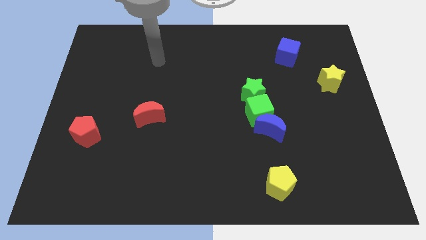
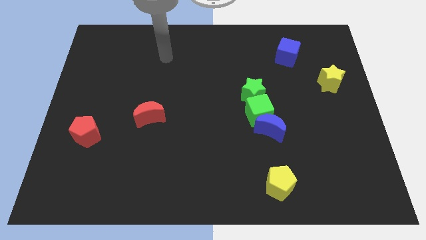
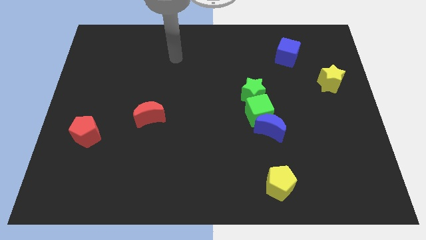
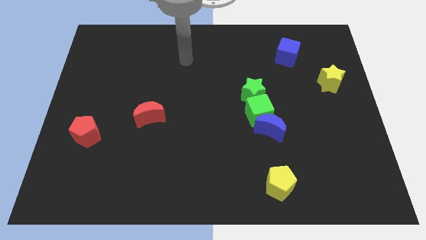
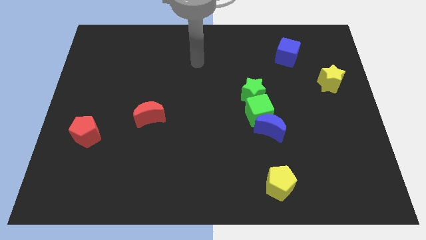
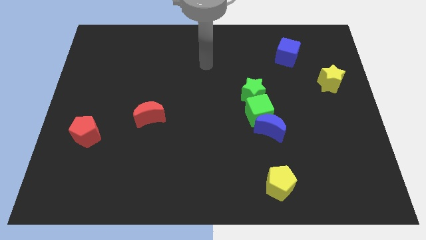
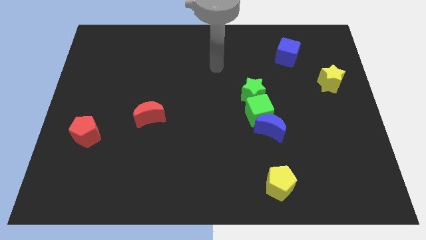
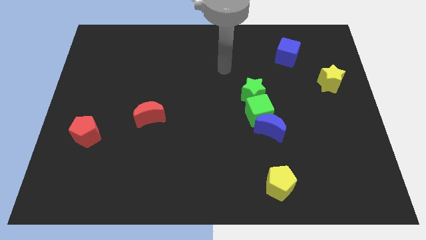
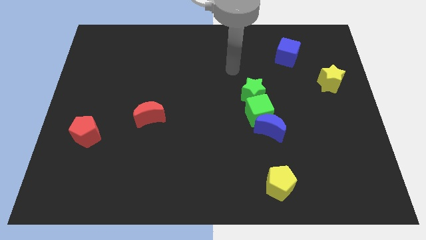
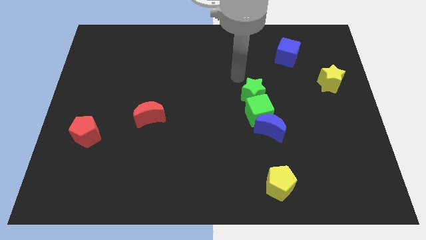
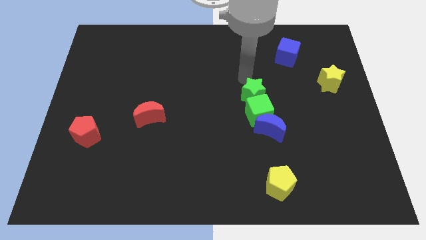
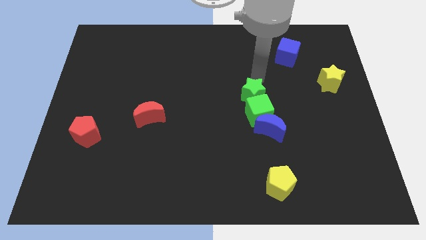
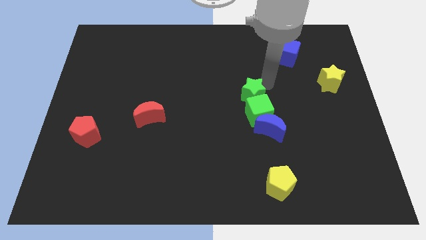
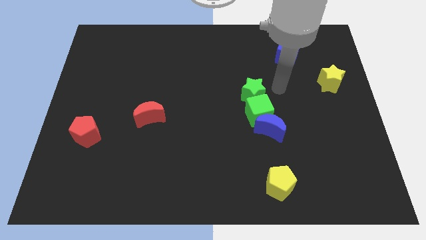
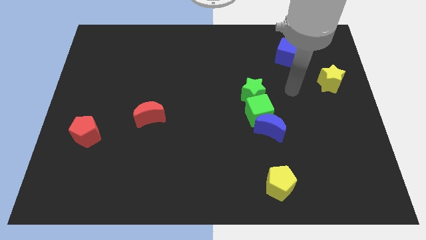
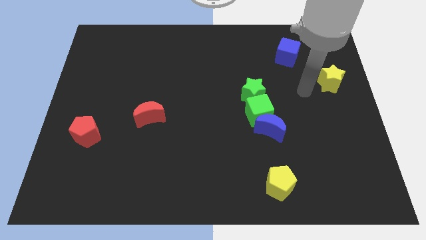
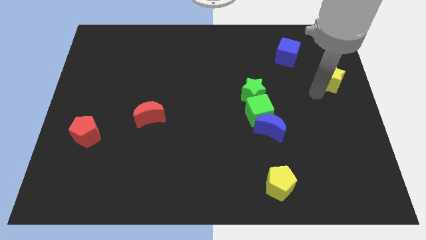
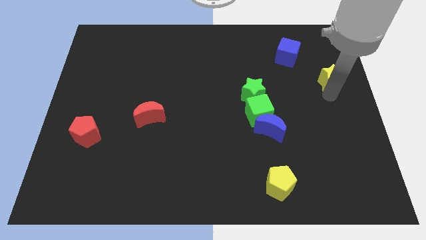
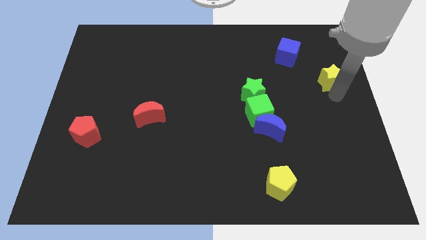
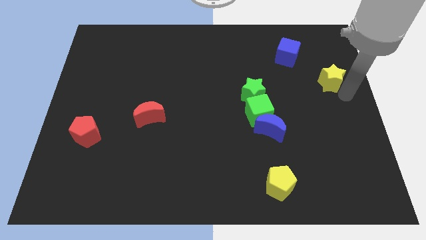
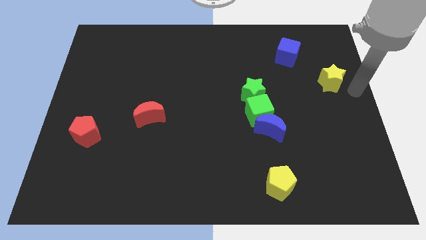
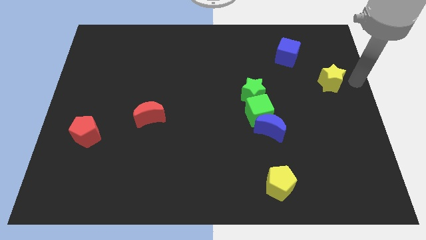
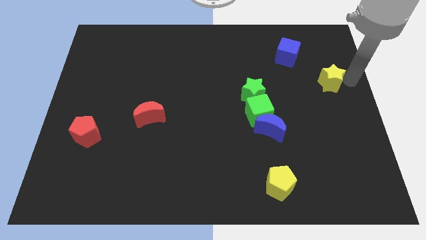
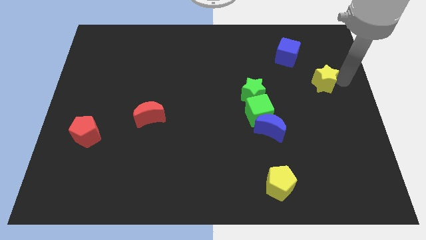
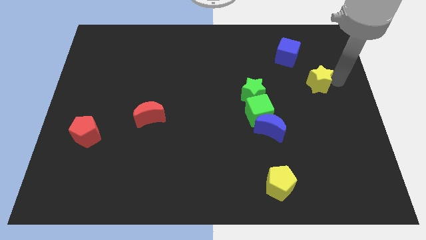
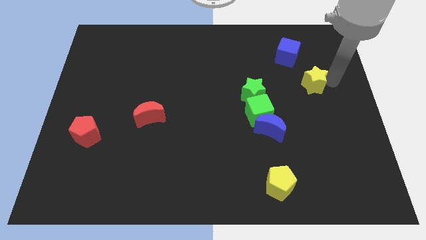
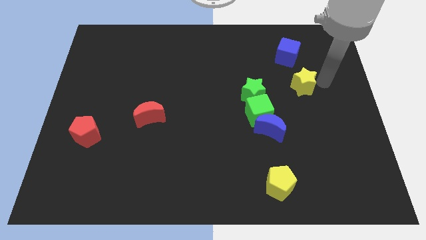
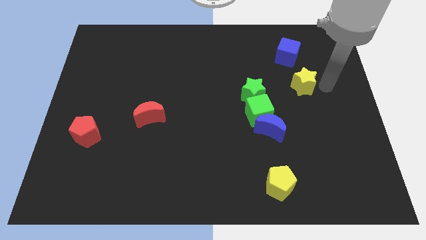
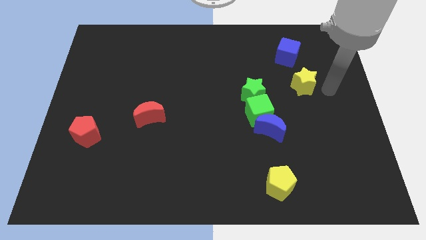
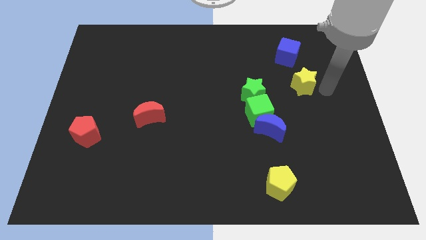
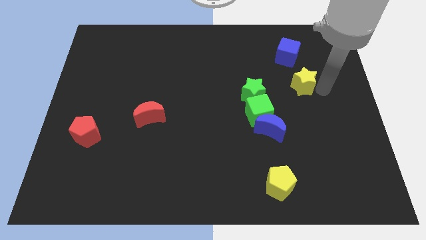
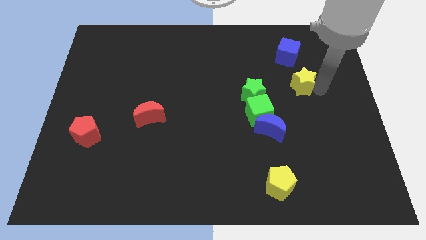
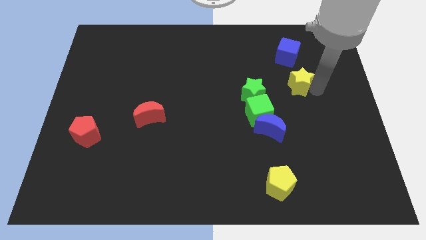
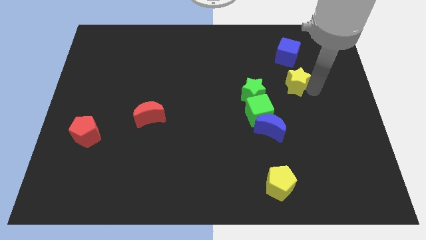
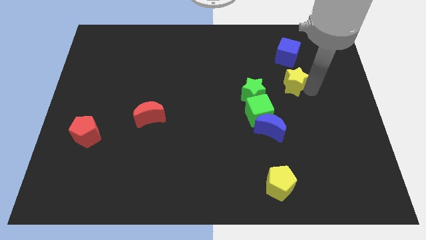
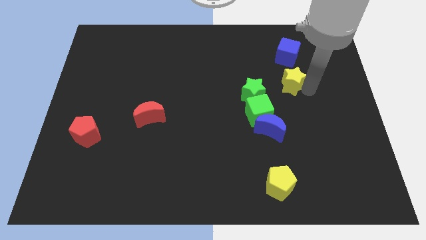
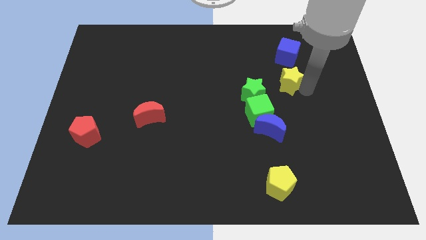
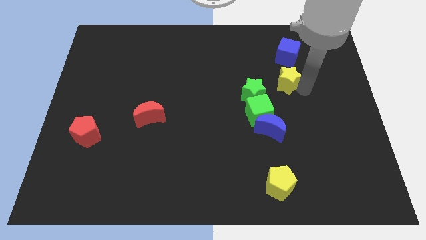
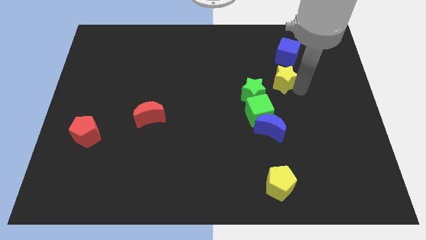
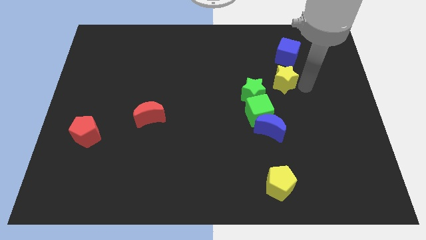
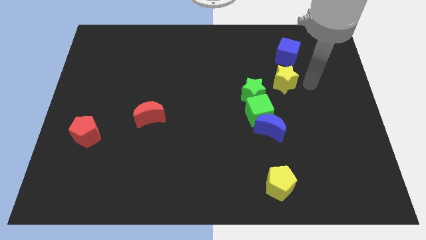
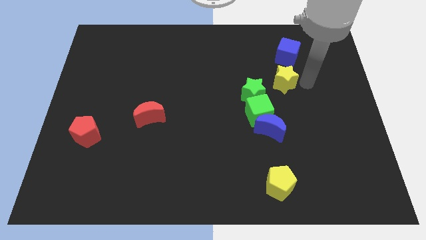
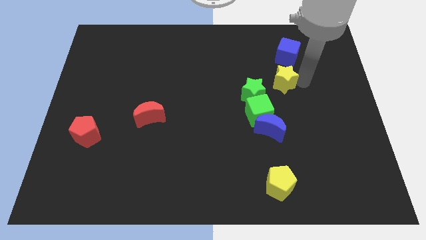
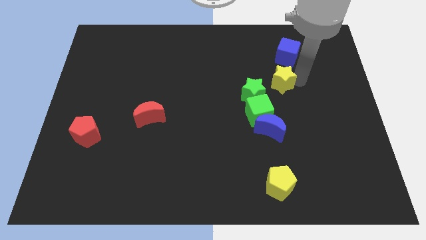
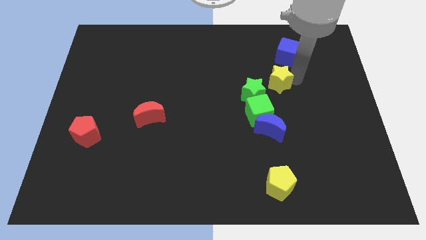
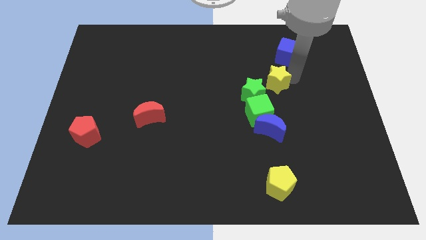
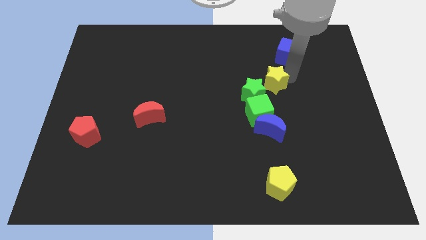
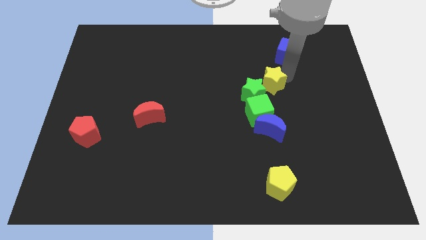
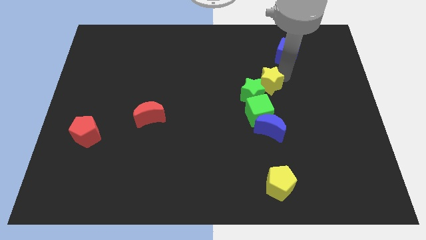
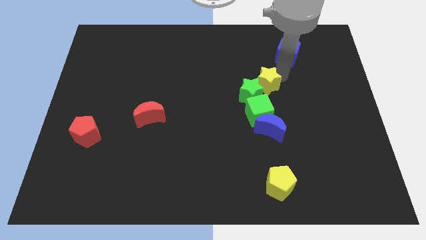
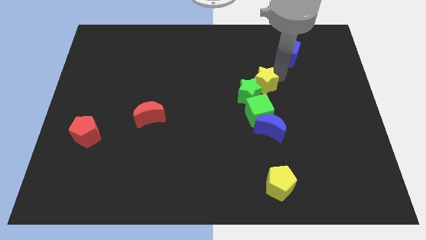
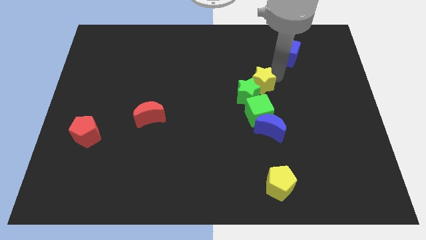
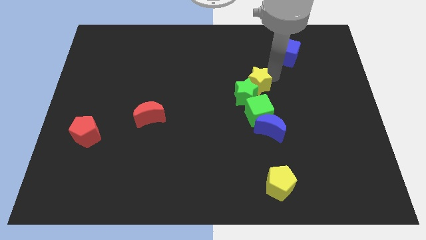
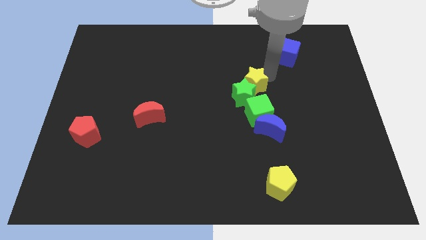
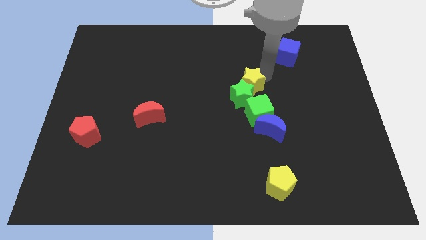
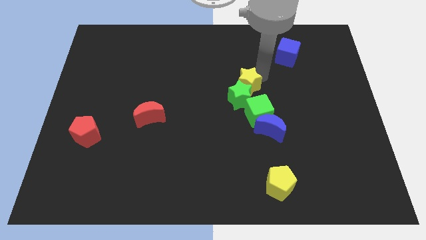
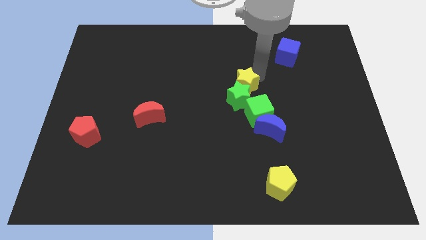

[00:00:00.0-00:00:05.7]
move the yellow star to the top left side of the green star

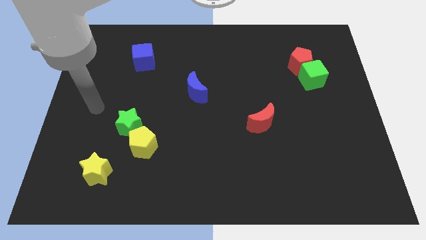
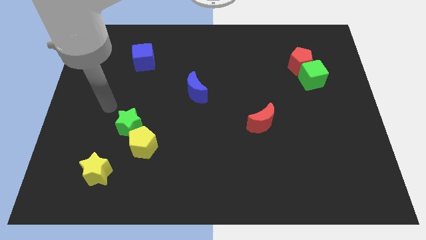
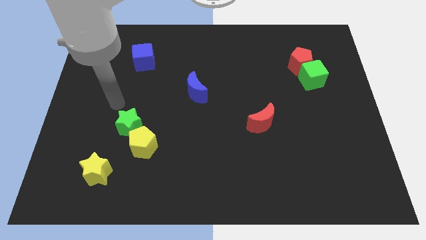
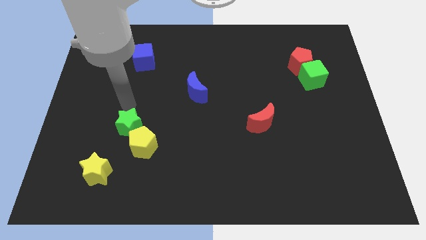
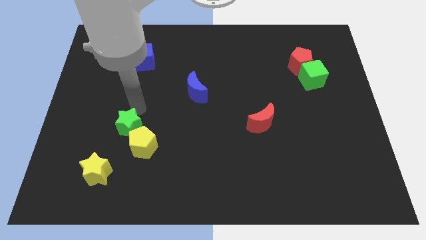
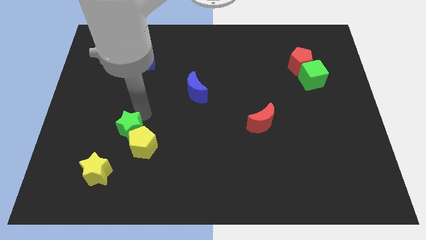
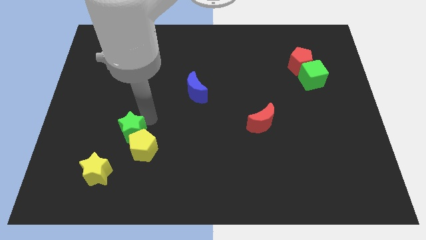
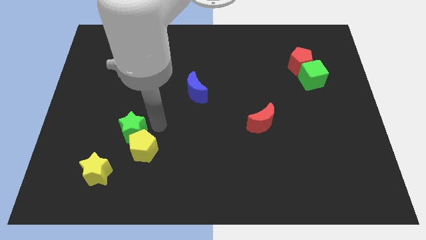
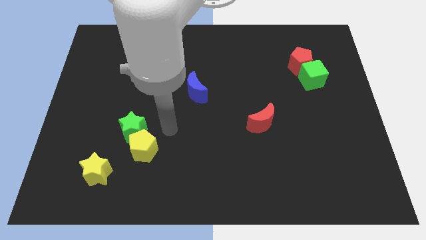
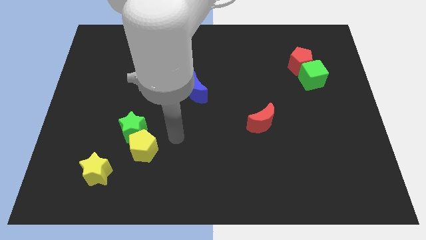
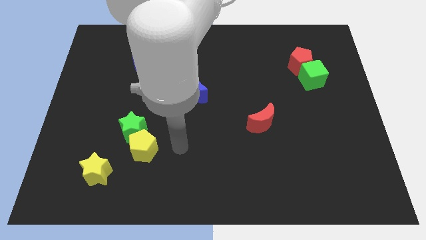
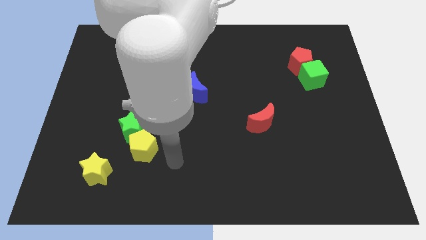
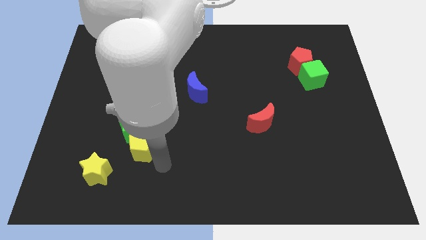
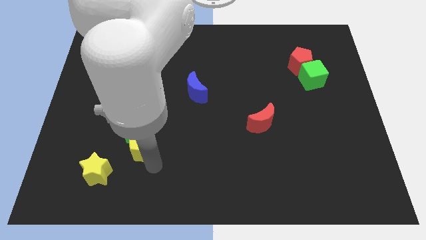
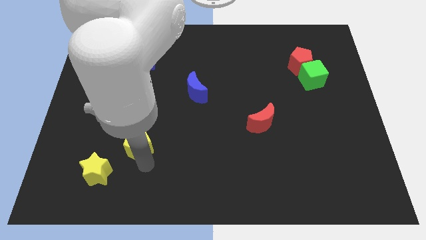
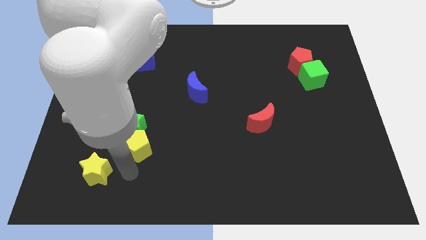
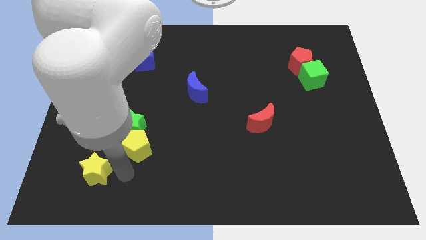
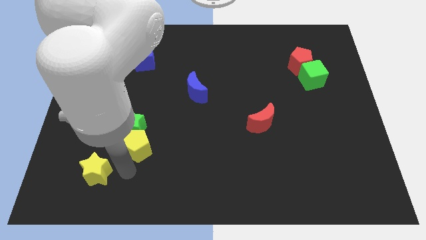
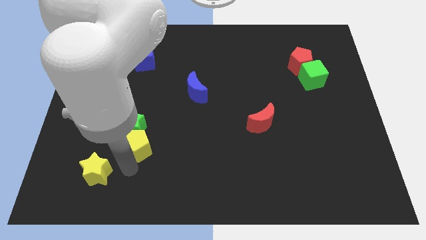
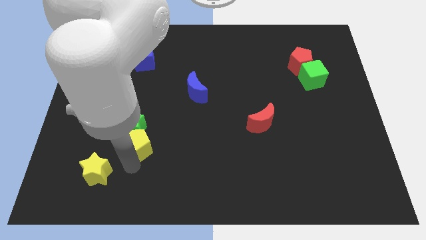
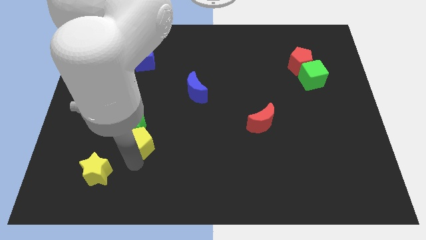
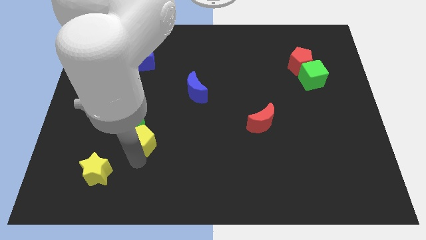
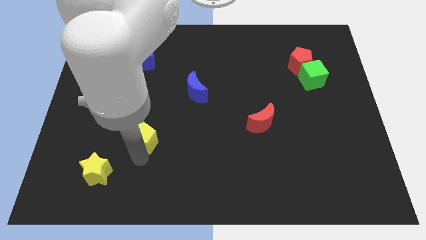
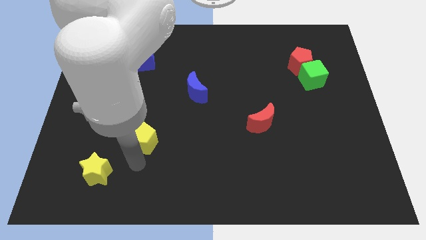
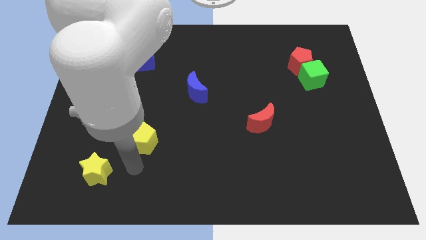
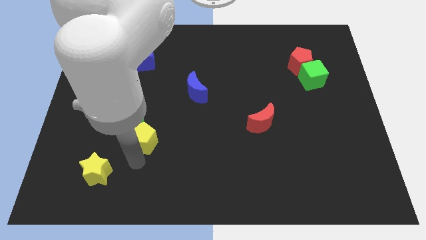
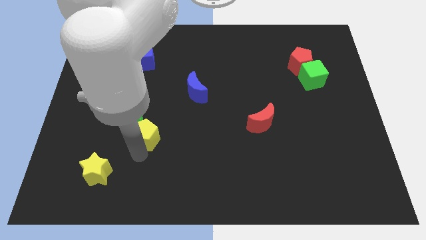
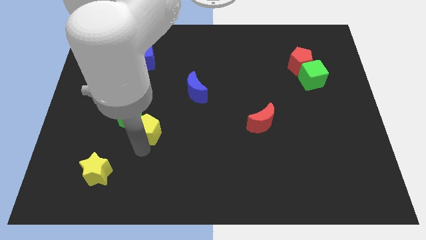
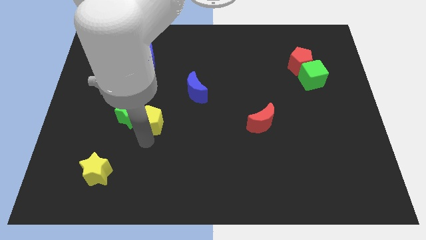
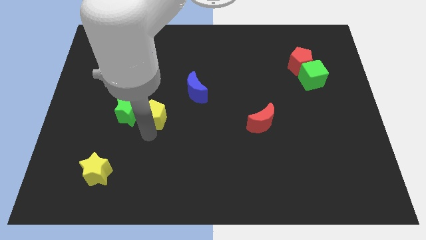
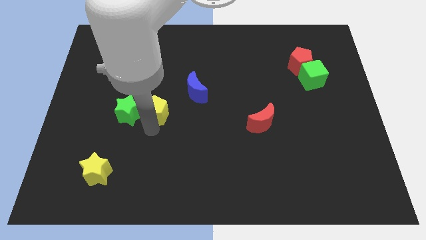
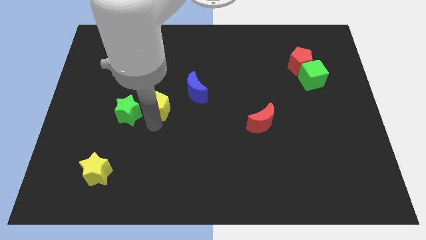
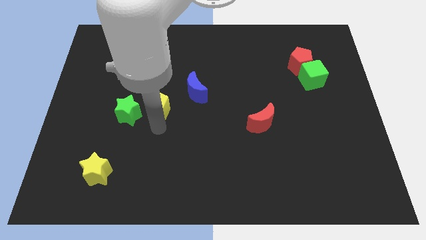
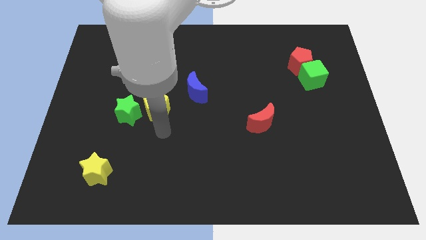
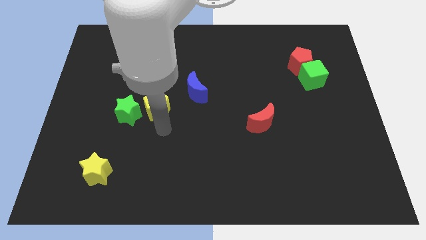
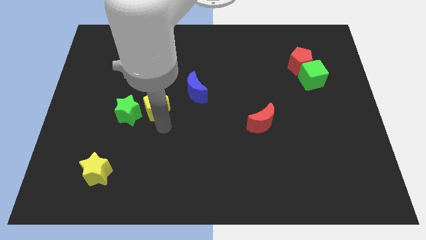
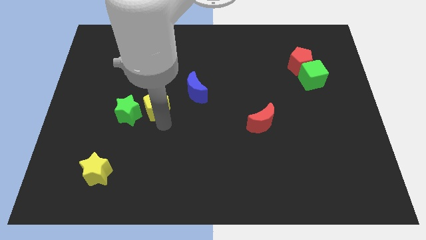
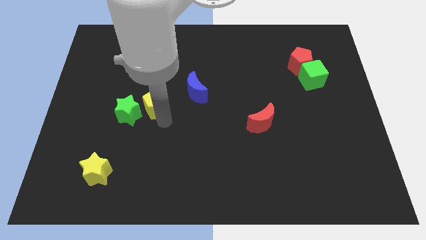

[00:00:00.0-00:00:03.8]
put the yellow pentagon to the left side of the blue moon
